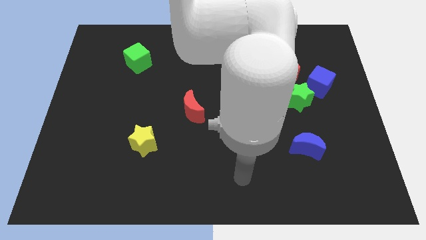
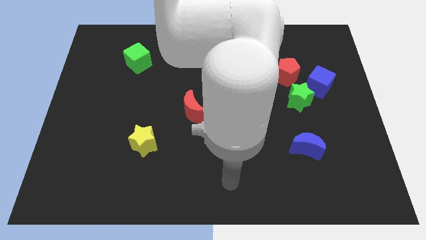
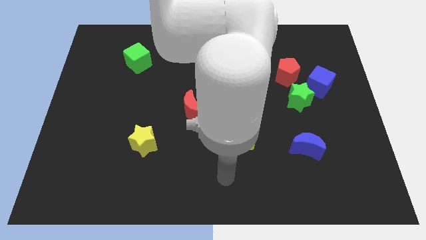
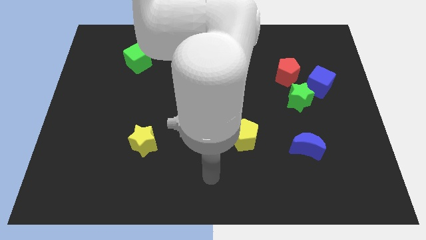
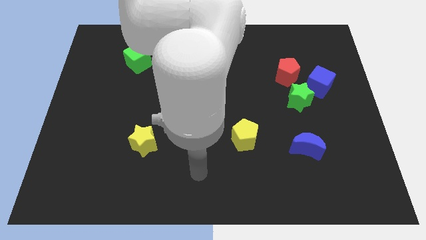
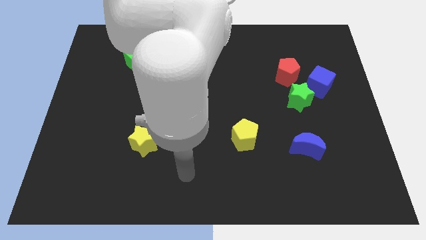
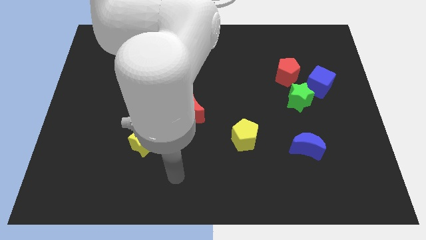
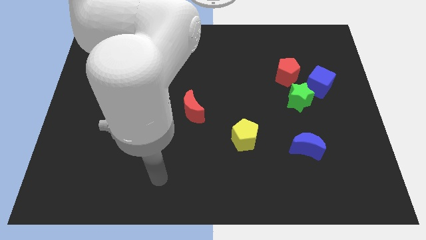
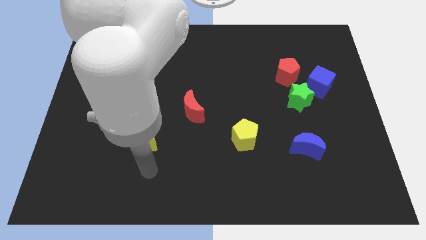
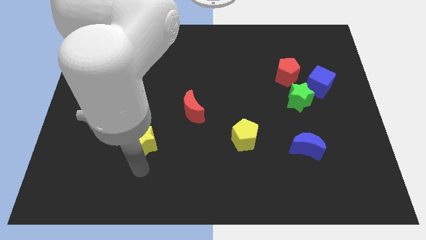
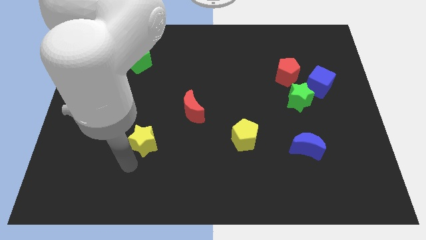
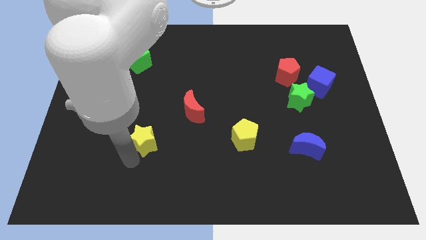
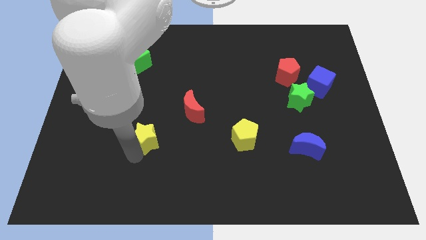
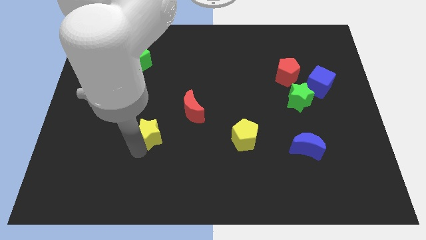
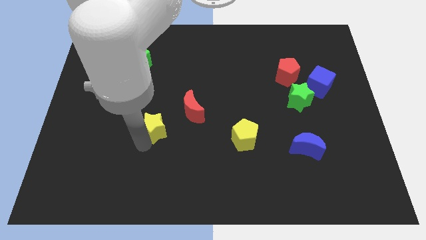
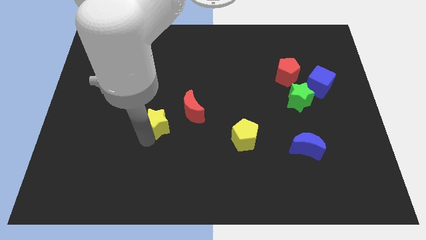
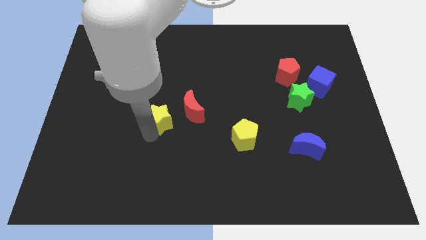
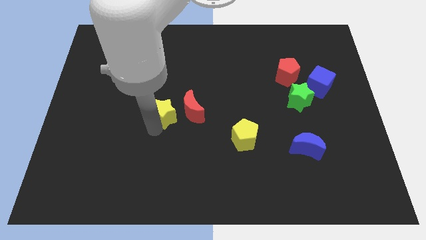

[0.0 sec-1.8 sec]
move the yellow star up and to the right a bit

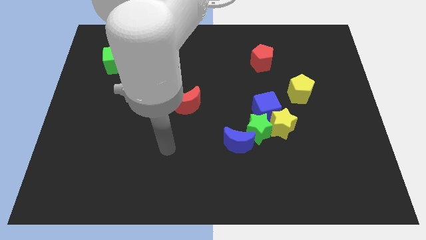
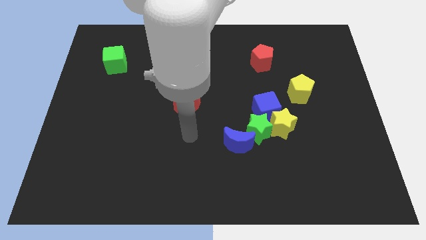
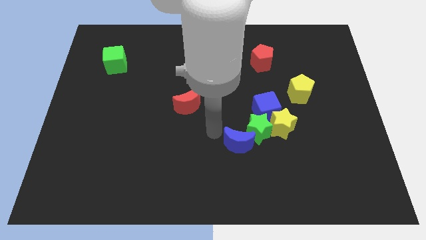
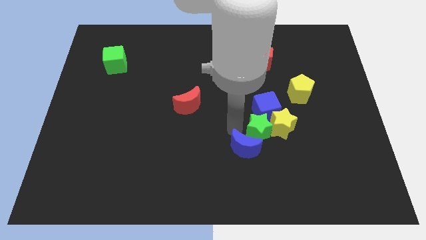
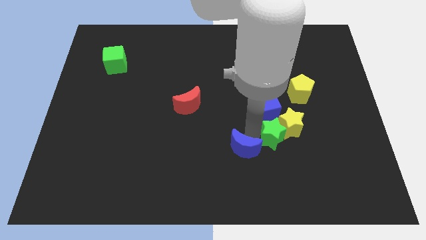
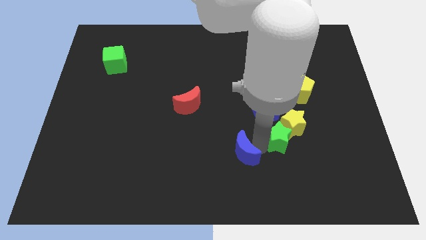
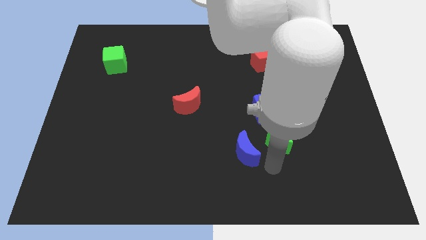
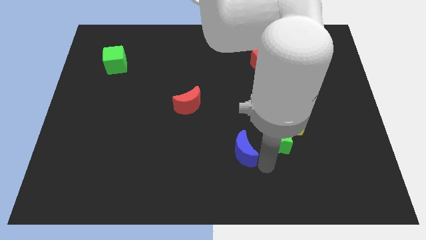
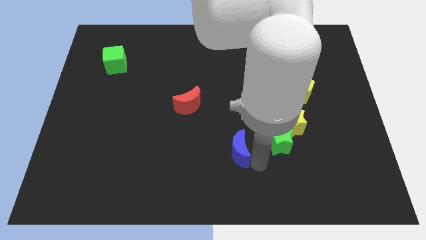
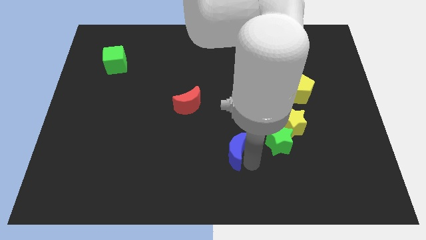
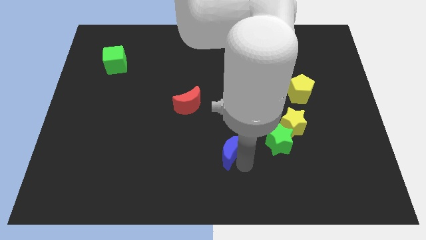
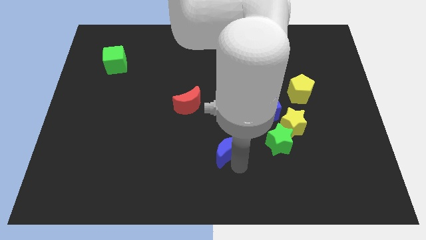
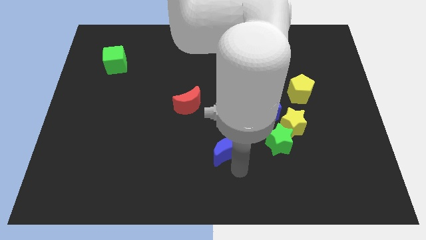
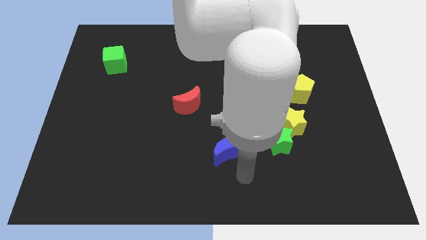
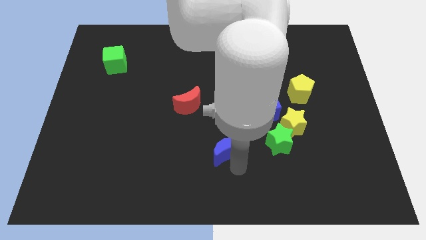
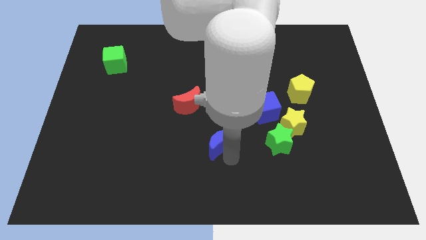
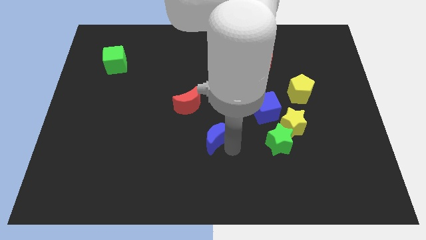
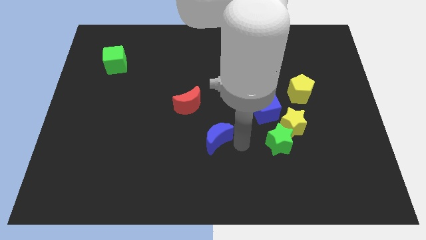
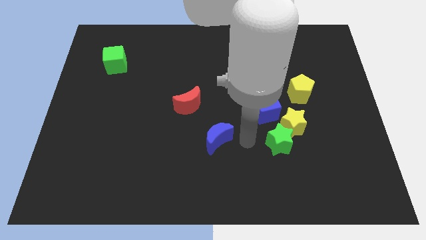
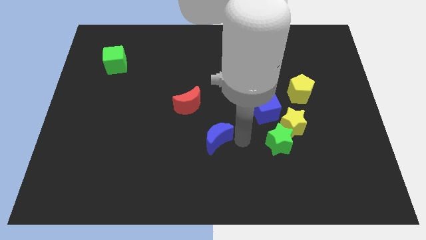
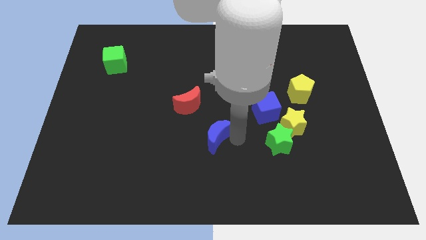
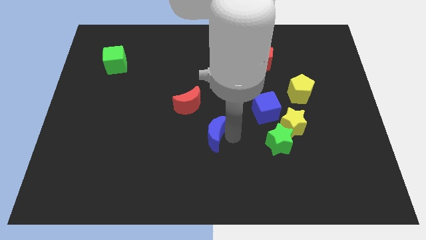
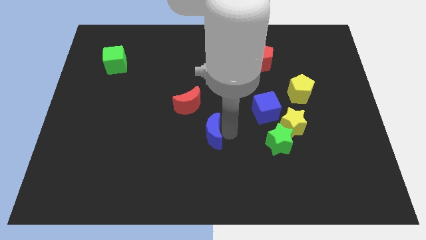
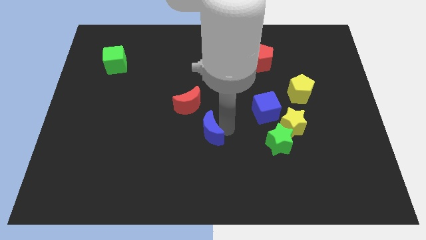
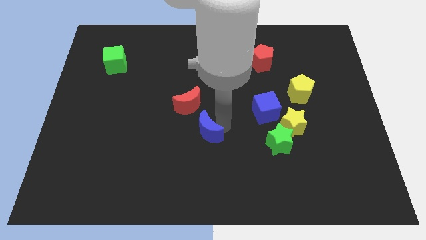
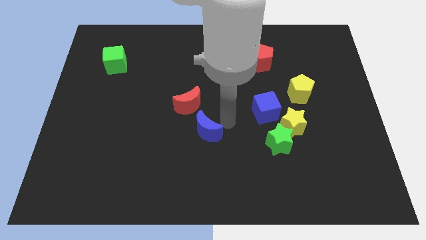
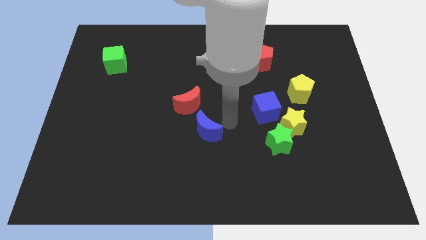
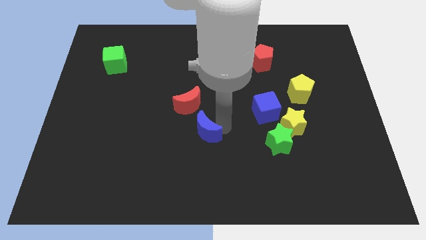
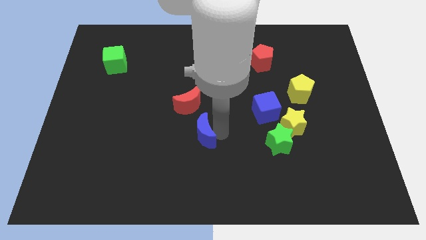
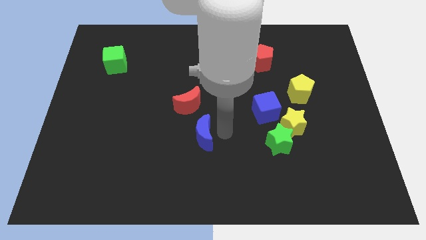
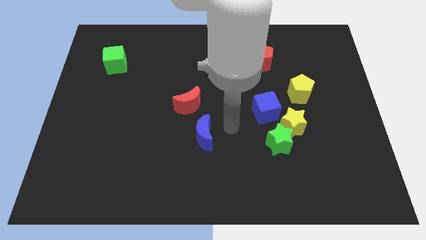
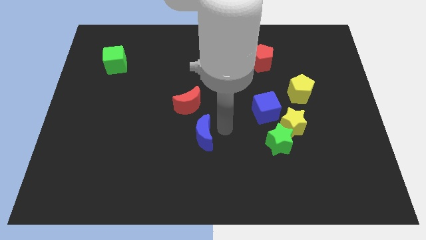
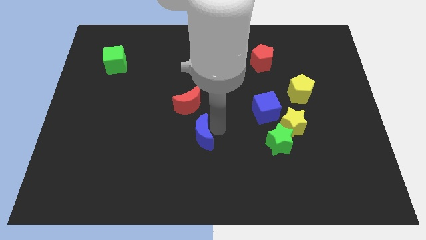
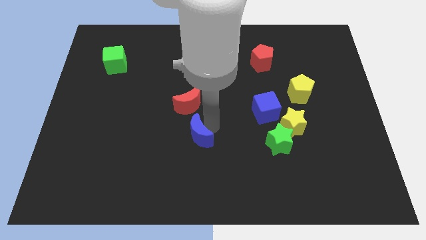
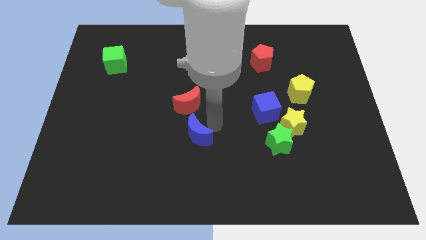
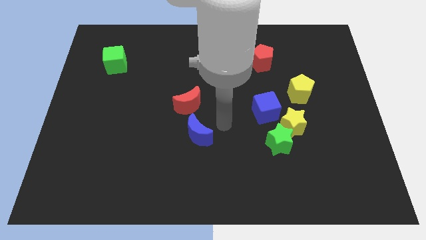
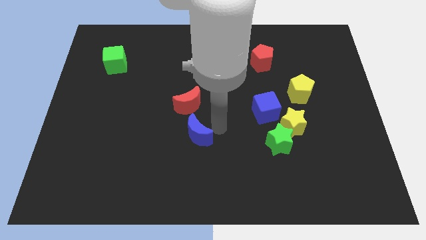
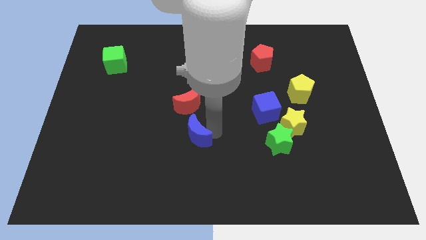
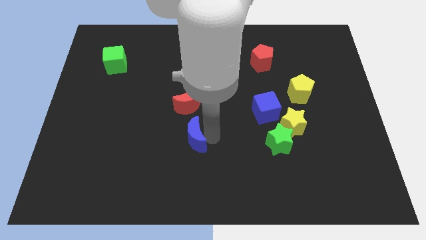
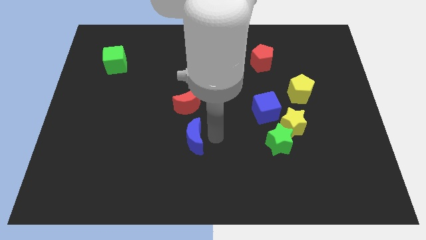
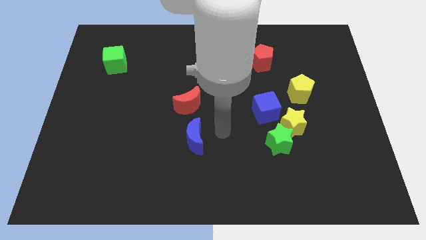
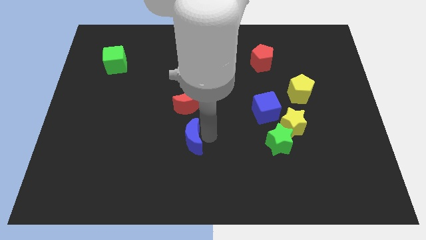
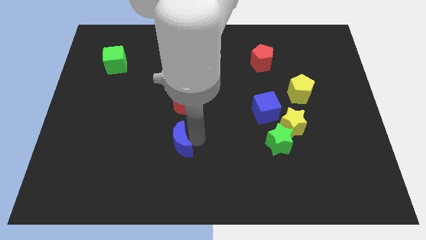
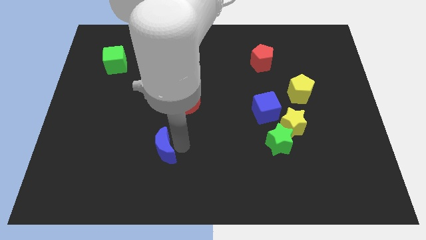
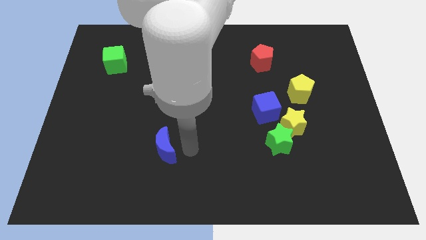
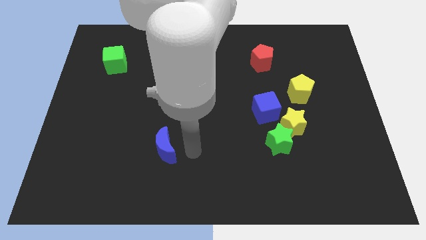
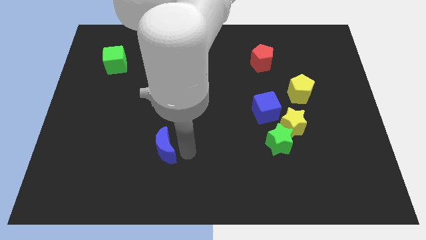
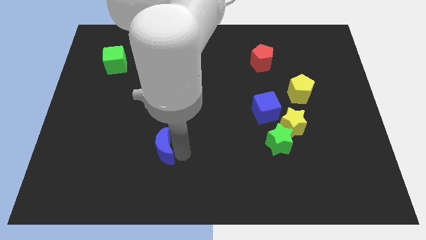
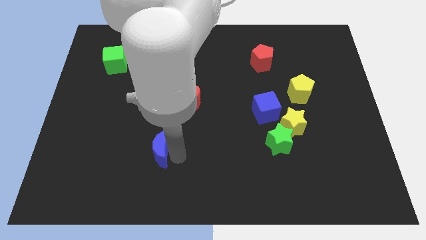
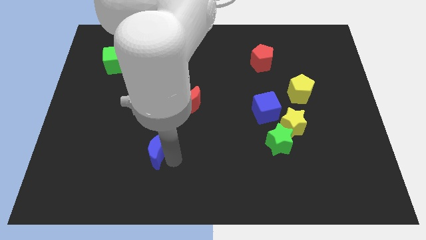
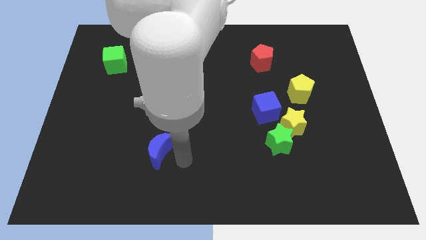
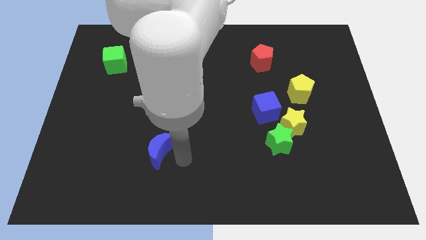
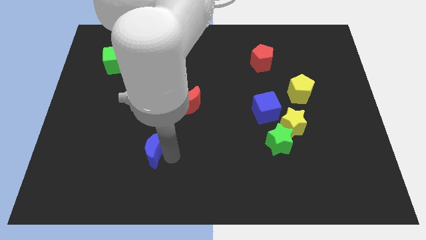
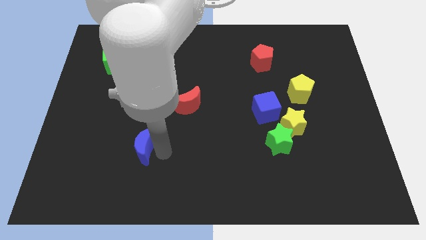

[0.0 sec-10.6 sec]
move the blue moon left

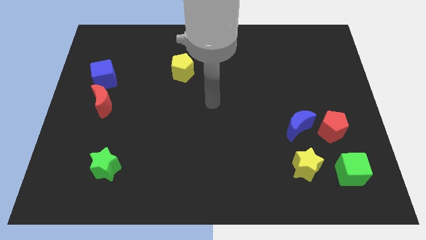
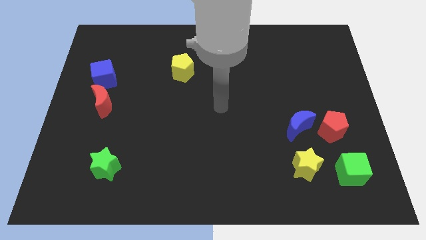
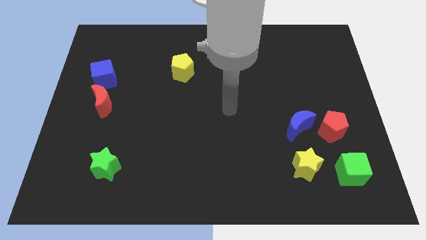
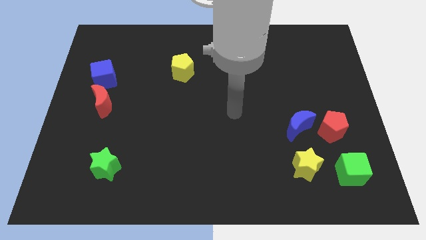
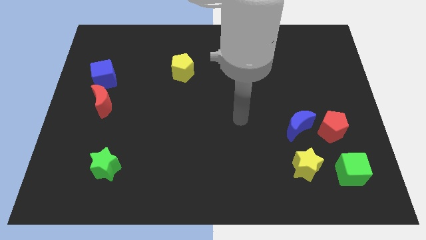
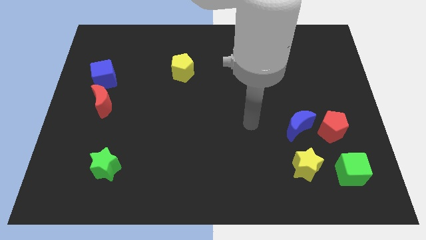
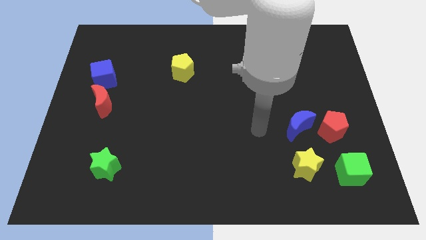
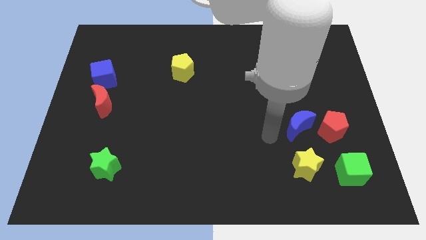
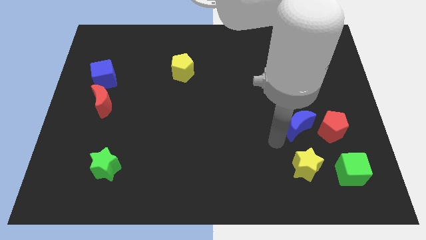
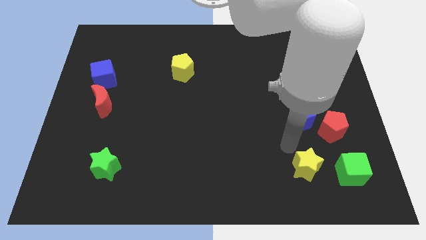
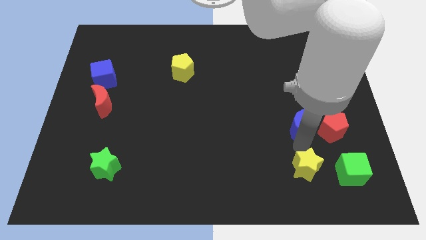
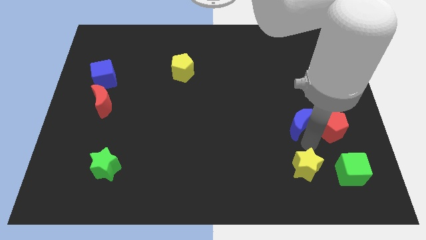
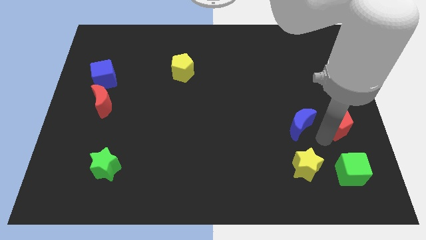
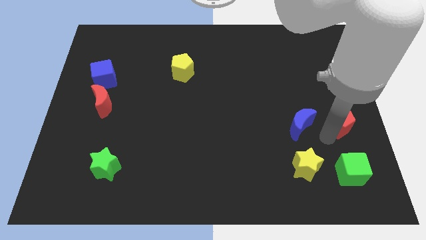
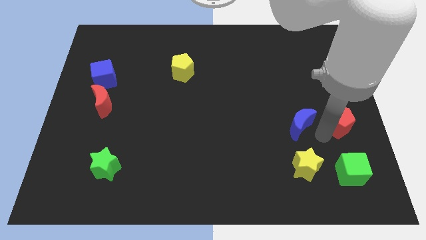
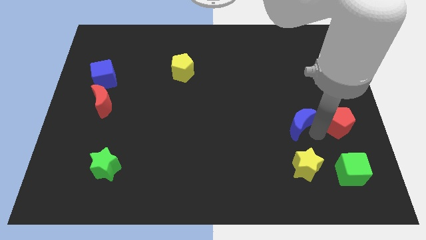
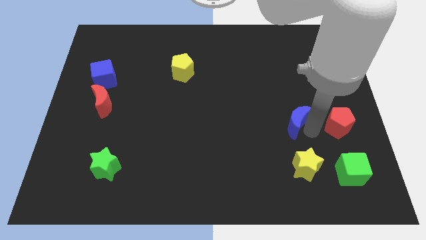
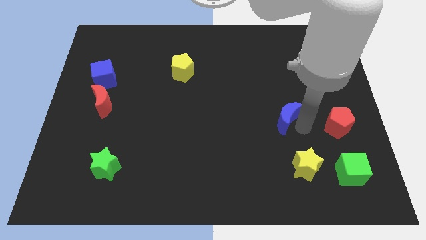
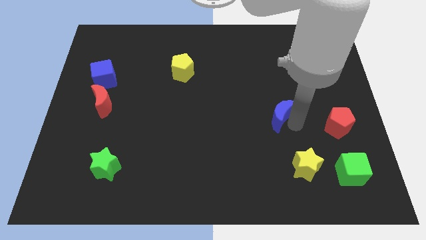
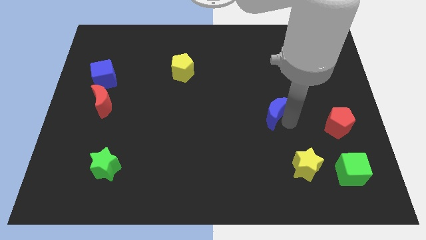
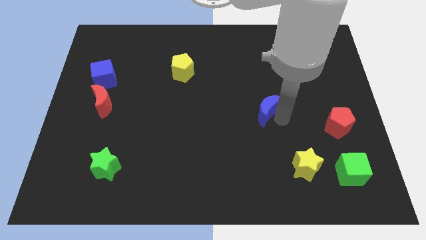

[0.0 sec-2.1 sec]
slightly push the blue moon up and then to the left
